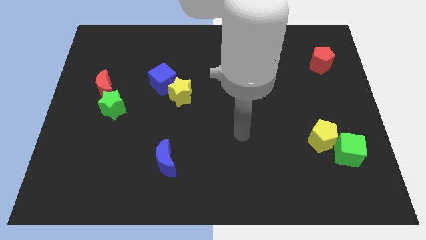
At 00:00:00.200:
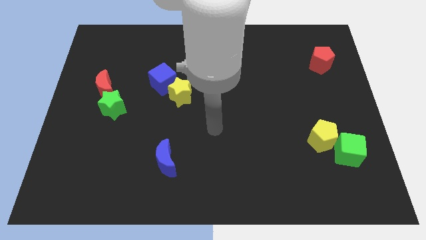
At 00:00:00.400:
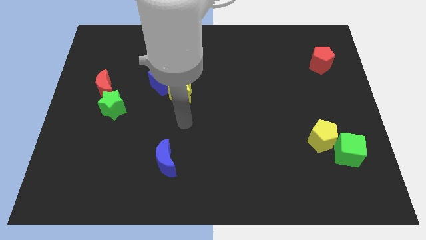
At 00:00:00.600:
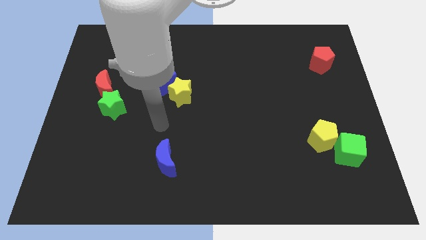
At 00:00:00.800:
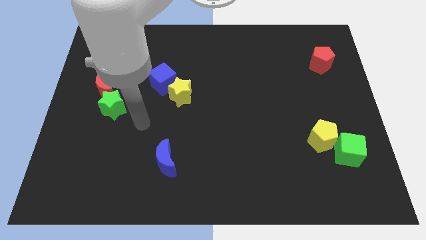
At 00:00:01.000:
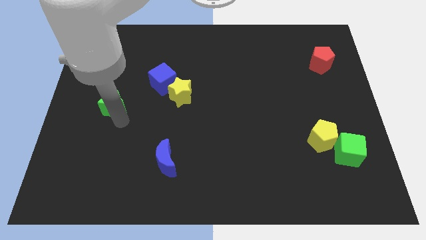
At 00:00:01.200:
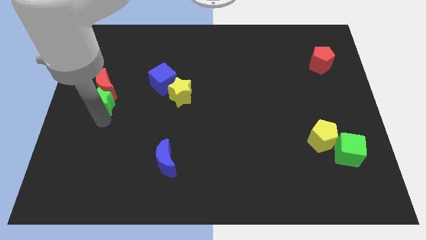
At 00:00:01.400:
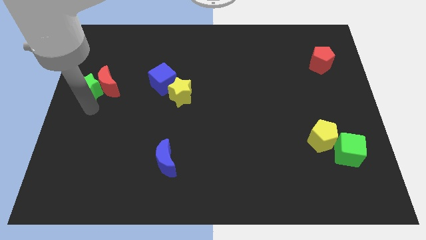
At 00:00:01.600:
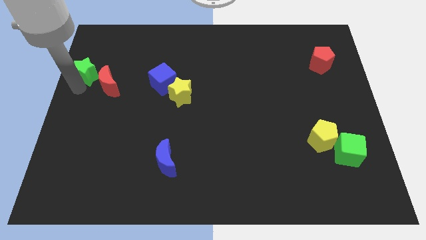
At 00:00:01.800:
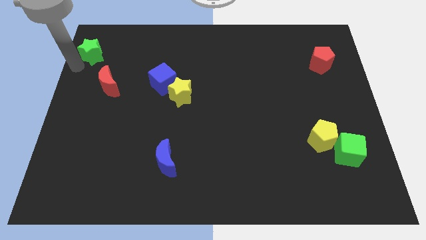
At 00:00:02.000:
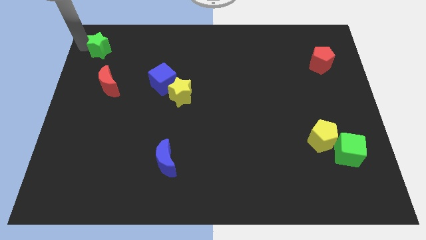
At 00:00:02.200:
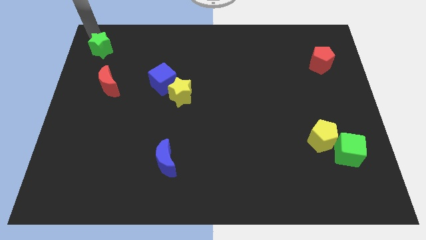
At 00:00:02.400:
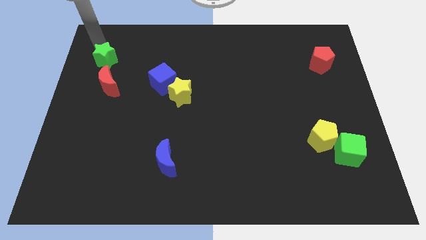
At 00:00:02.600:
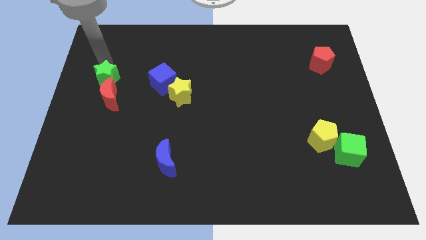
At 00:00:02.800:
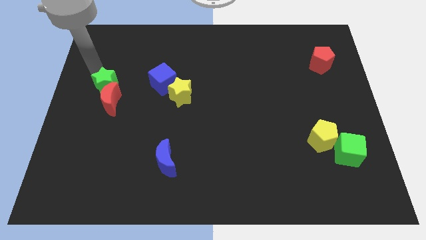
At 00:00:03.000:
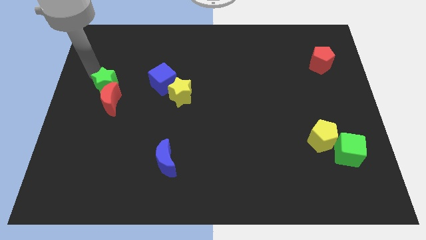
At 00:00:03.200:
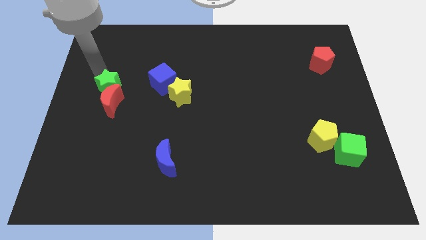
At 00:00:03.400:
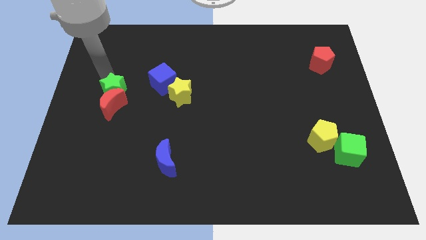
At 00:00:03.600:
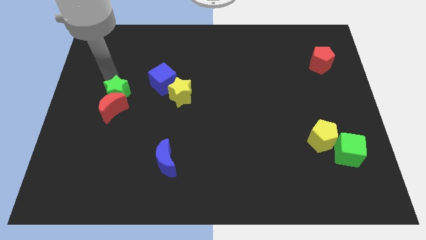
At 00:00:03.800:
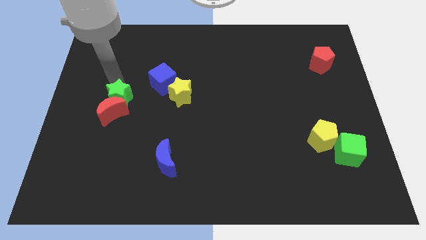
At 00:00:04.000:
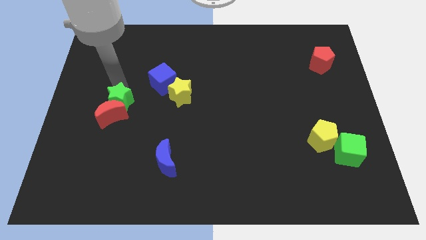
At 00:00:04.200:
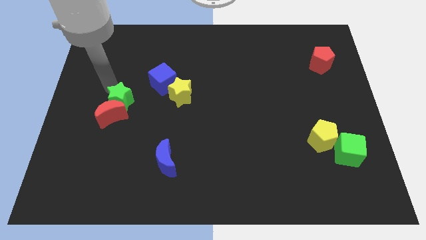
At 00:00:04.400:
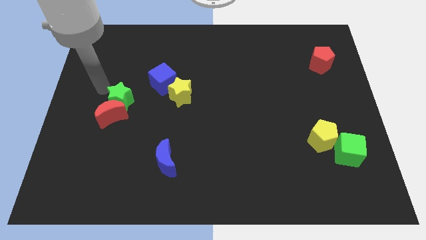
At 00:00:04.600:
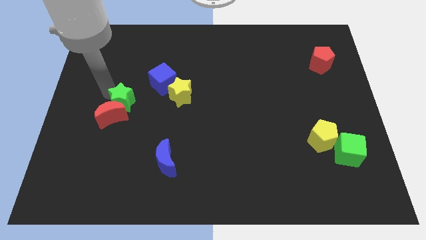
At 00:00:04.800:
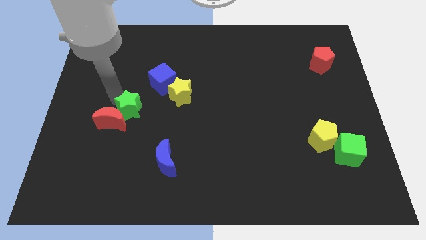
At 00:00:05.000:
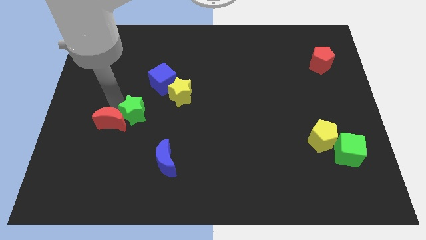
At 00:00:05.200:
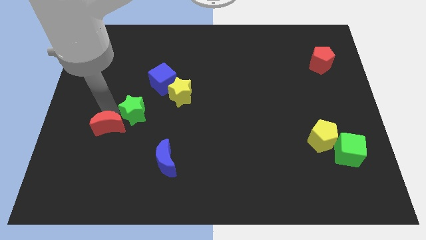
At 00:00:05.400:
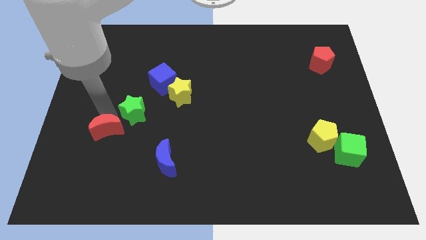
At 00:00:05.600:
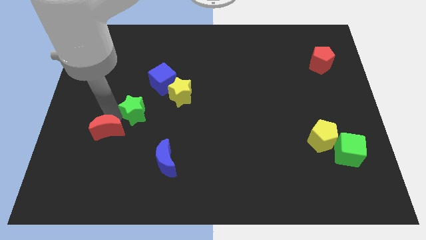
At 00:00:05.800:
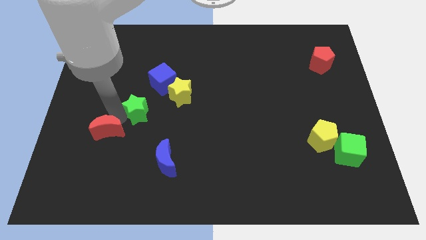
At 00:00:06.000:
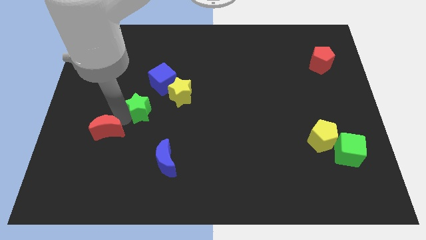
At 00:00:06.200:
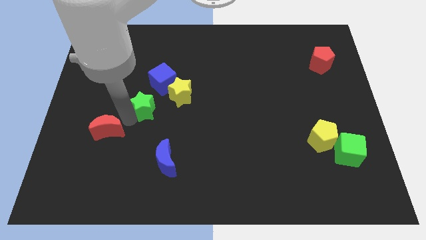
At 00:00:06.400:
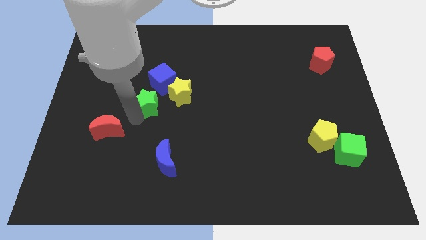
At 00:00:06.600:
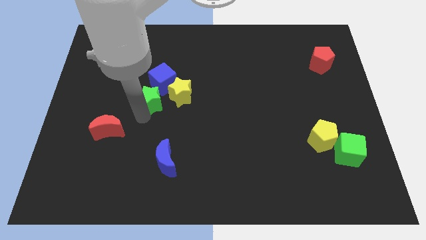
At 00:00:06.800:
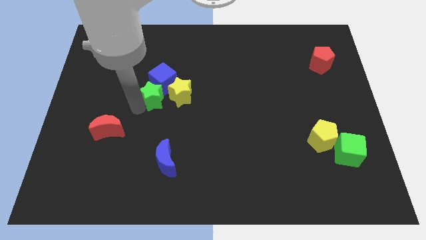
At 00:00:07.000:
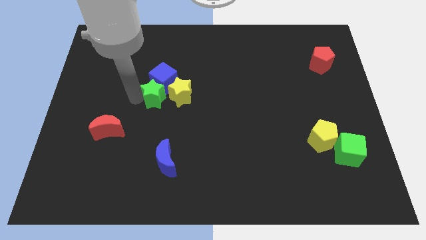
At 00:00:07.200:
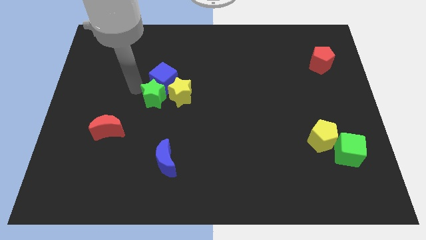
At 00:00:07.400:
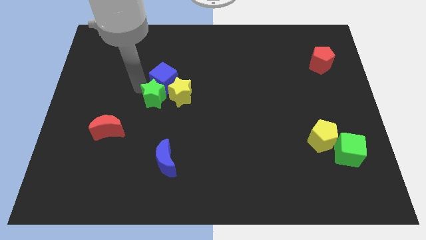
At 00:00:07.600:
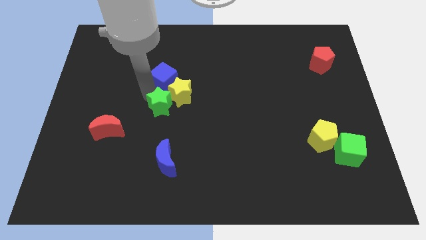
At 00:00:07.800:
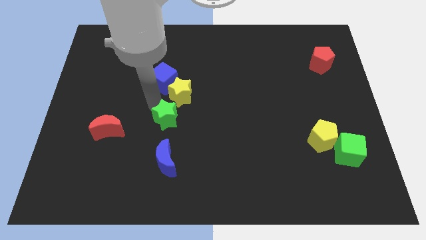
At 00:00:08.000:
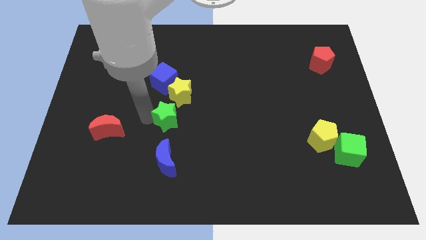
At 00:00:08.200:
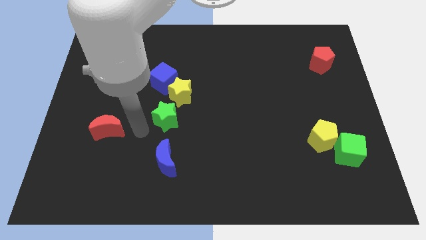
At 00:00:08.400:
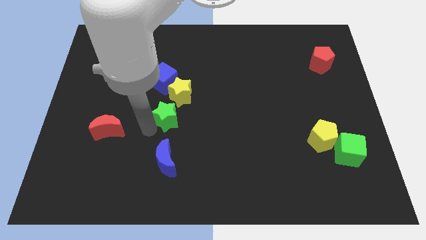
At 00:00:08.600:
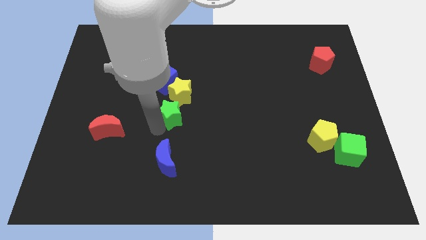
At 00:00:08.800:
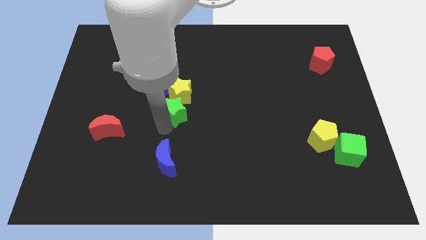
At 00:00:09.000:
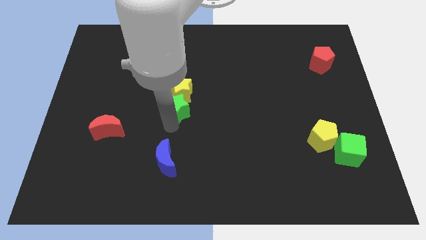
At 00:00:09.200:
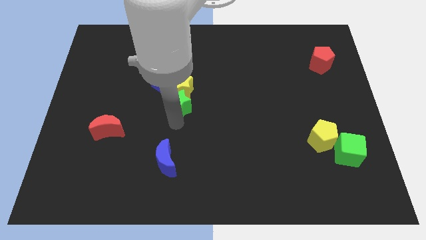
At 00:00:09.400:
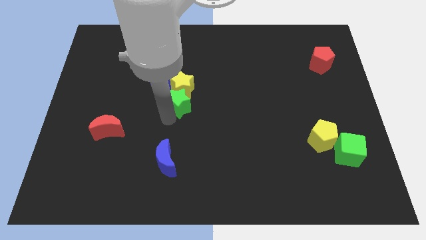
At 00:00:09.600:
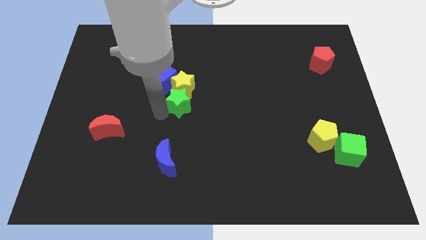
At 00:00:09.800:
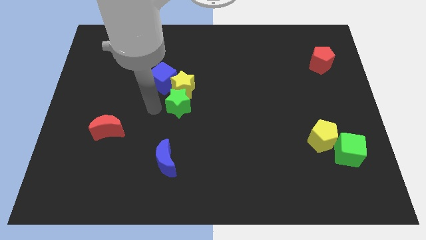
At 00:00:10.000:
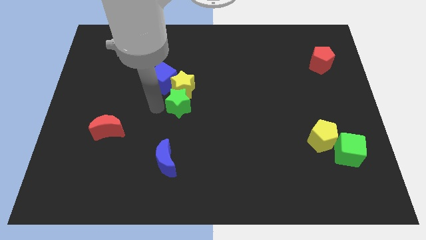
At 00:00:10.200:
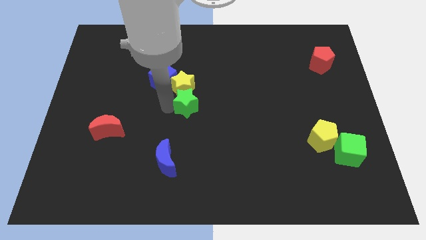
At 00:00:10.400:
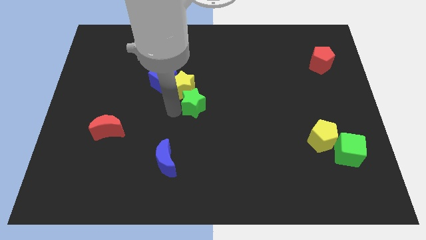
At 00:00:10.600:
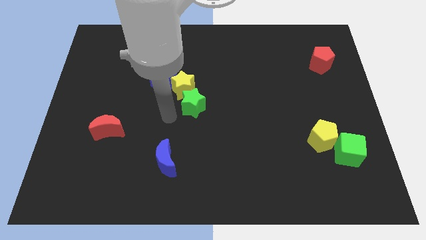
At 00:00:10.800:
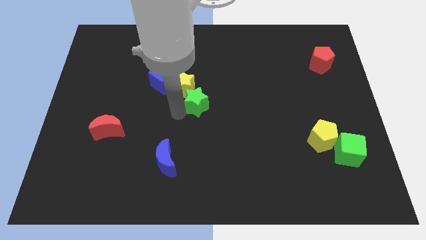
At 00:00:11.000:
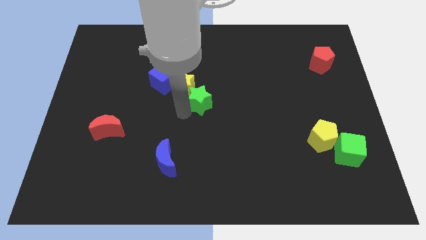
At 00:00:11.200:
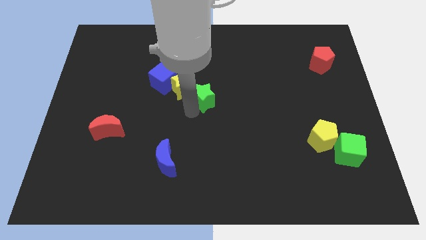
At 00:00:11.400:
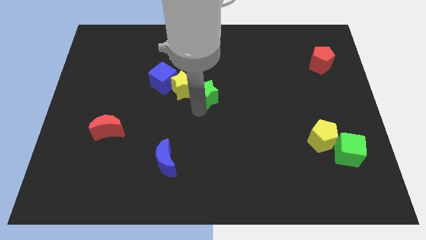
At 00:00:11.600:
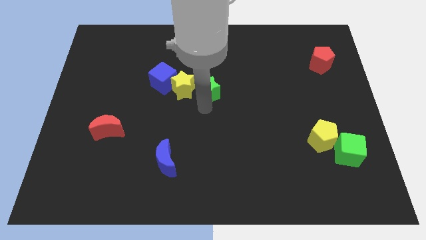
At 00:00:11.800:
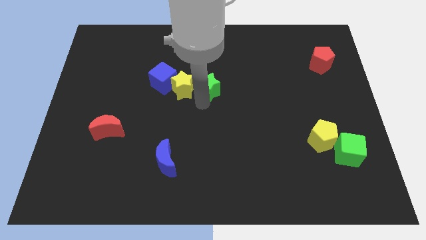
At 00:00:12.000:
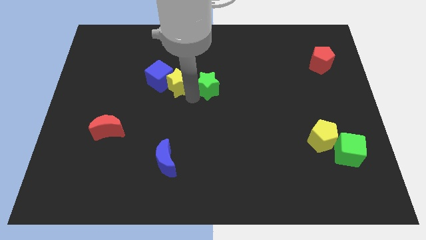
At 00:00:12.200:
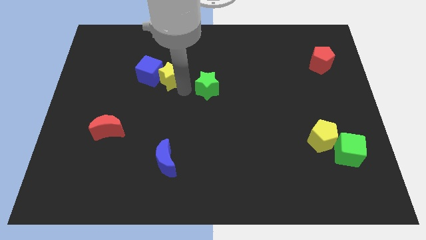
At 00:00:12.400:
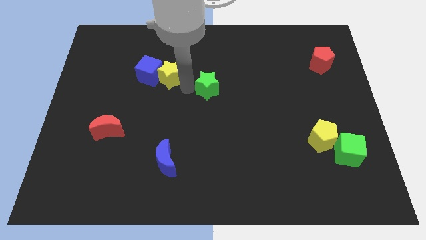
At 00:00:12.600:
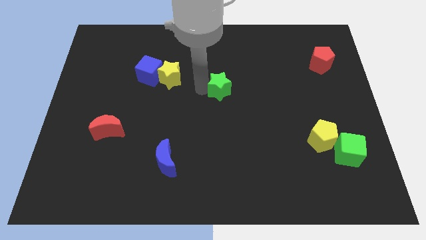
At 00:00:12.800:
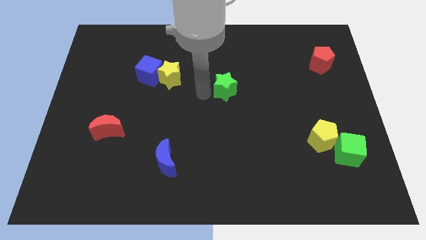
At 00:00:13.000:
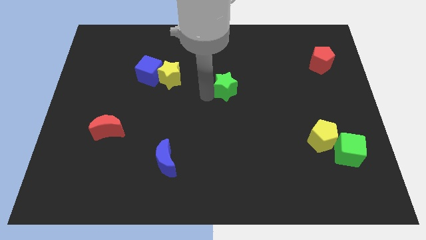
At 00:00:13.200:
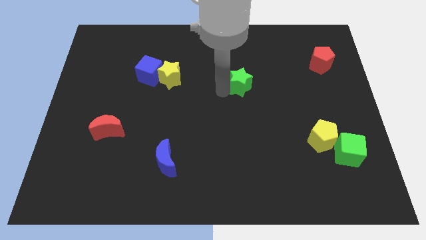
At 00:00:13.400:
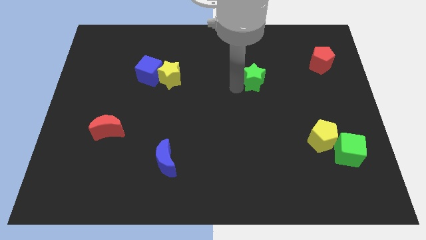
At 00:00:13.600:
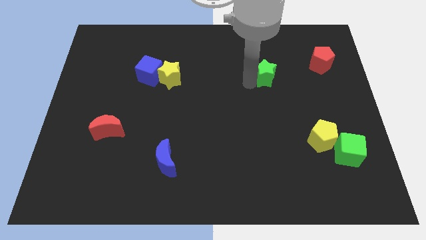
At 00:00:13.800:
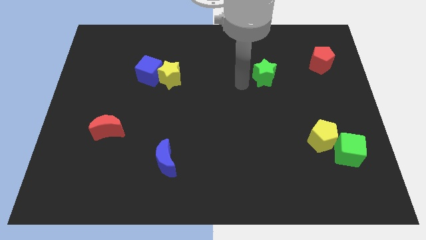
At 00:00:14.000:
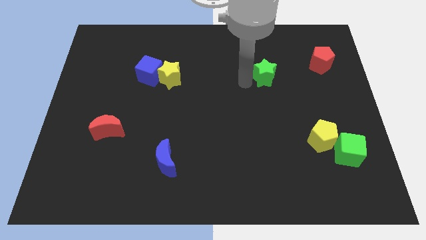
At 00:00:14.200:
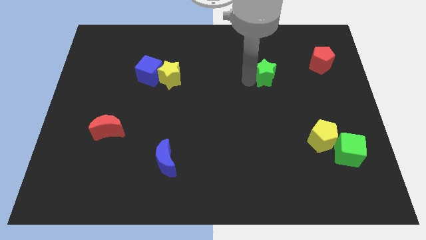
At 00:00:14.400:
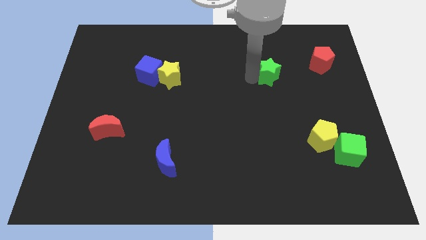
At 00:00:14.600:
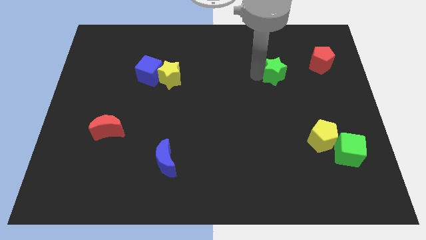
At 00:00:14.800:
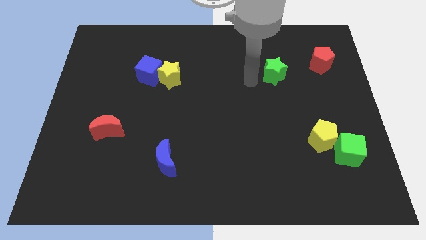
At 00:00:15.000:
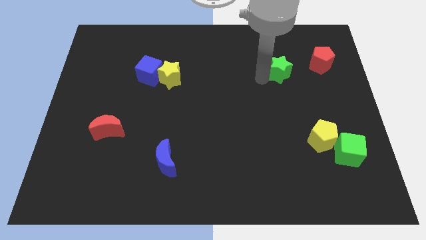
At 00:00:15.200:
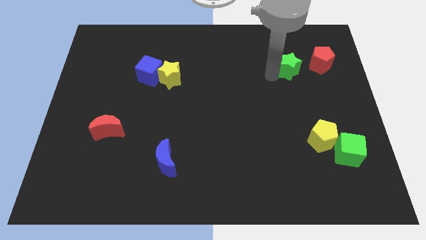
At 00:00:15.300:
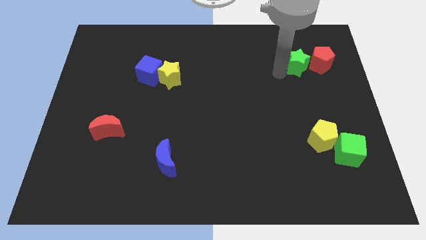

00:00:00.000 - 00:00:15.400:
push the green star towards the red pentagon
